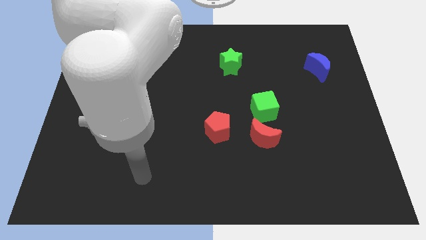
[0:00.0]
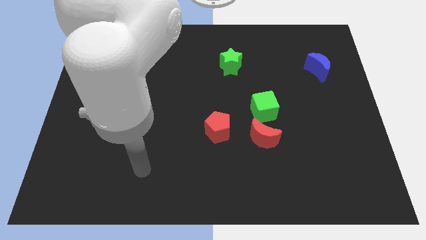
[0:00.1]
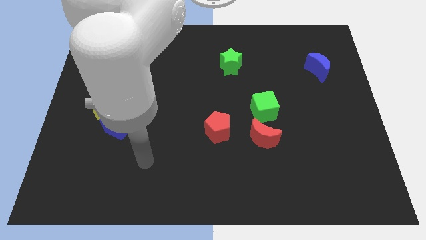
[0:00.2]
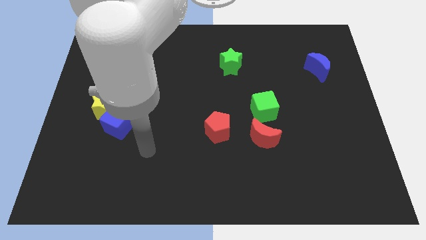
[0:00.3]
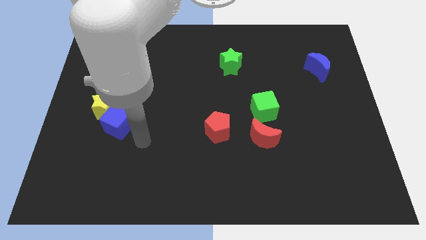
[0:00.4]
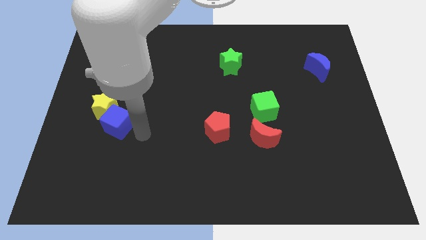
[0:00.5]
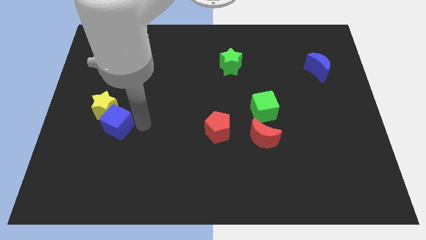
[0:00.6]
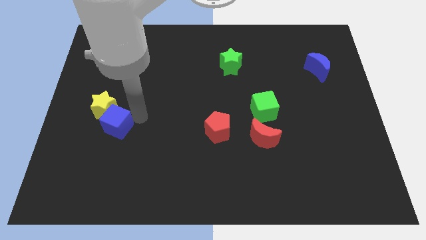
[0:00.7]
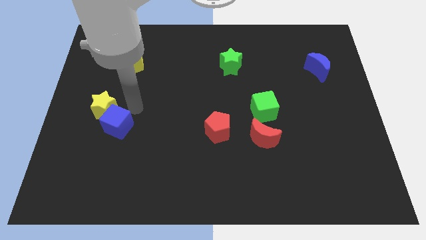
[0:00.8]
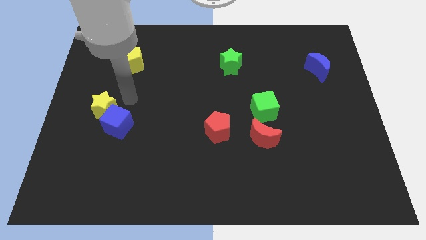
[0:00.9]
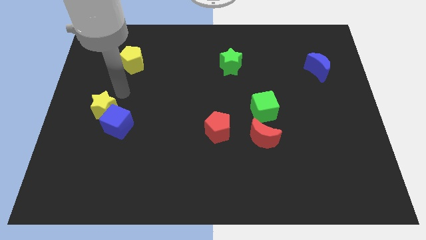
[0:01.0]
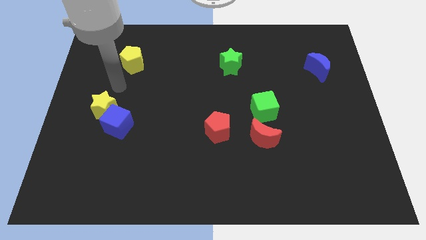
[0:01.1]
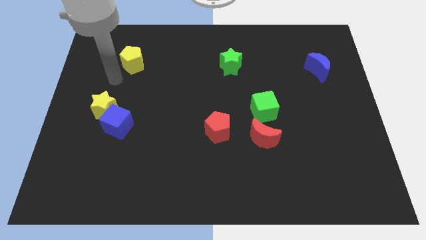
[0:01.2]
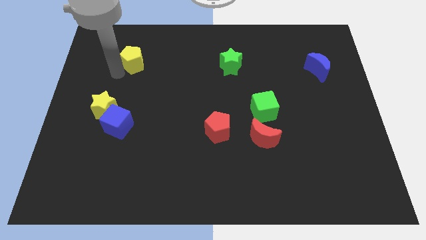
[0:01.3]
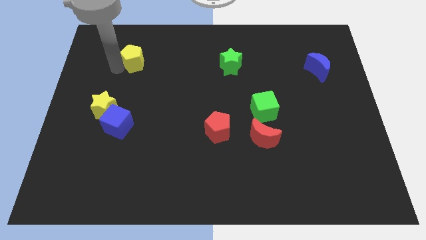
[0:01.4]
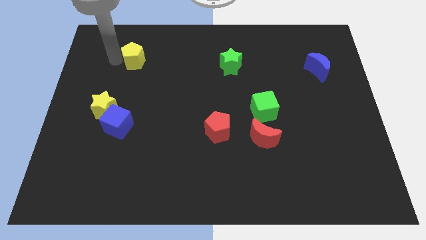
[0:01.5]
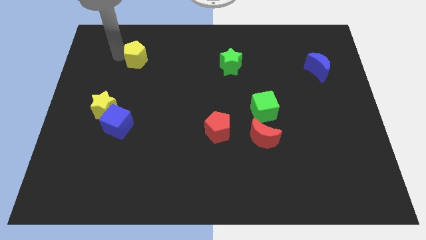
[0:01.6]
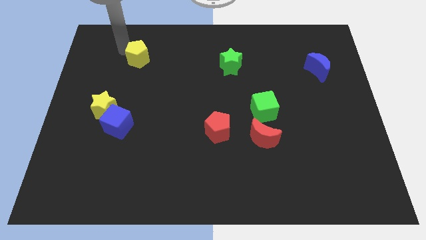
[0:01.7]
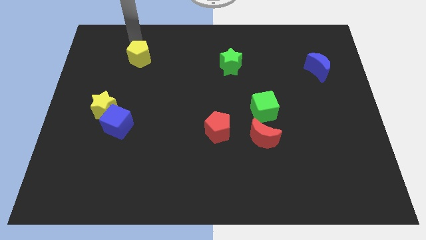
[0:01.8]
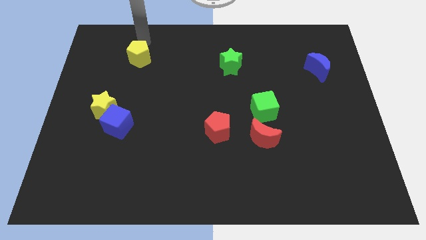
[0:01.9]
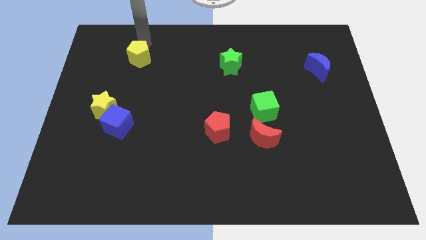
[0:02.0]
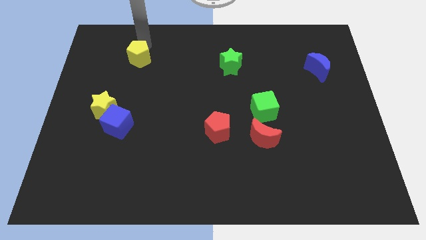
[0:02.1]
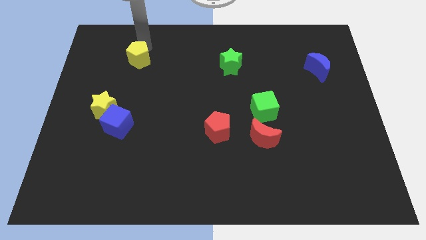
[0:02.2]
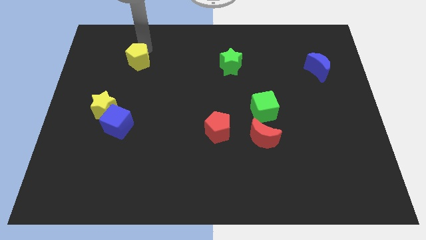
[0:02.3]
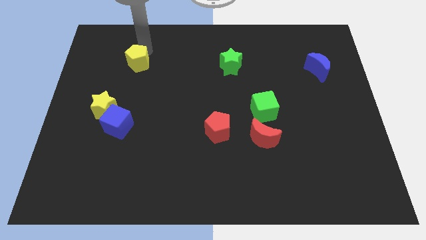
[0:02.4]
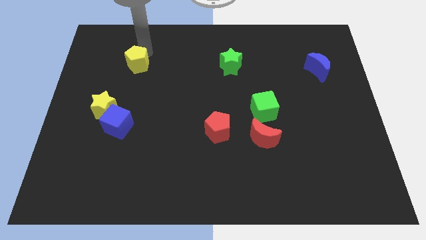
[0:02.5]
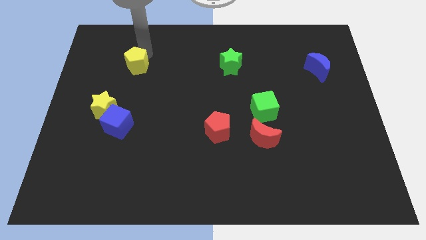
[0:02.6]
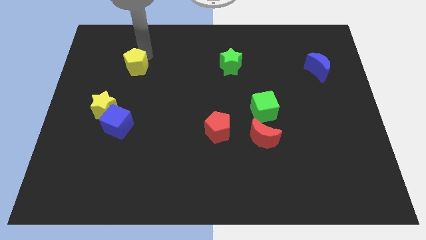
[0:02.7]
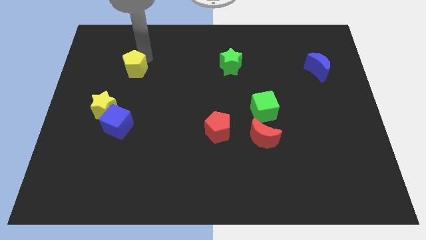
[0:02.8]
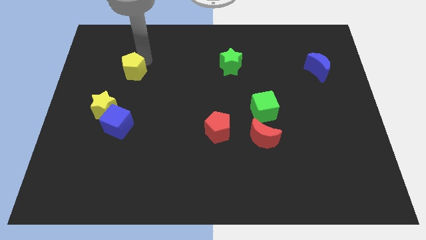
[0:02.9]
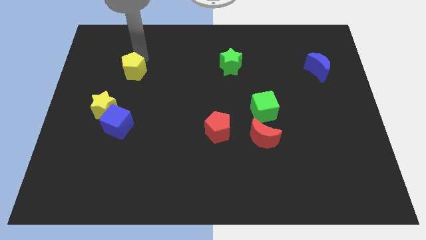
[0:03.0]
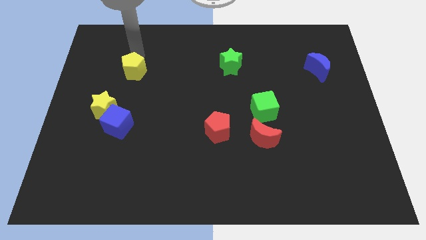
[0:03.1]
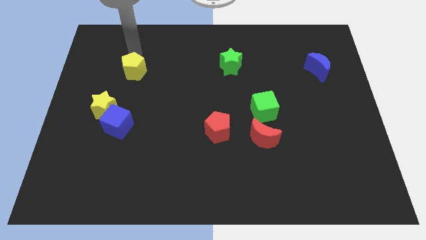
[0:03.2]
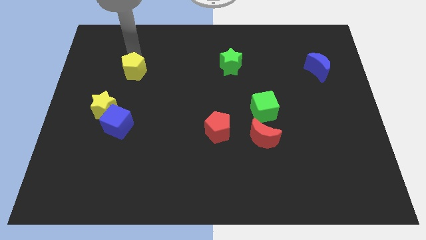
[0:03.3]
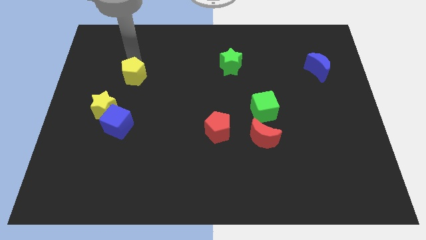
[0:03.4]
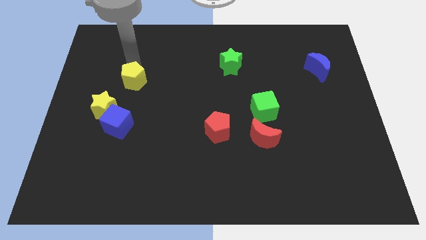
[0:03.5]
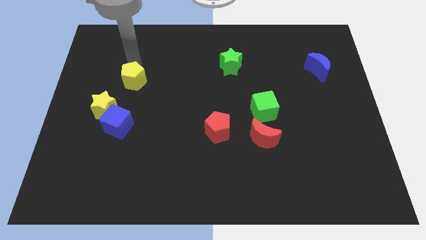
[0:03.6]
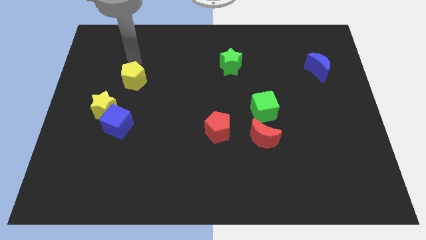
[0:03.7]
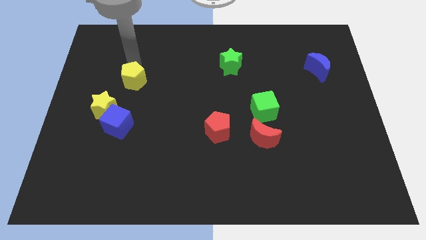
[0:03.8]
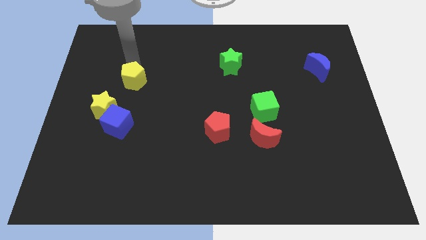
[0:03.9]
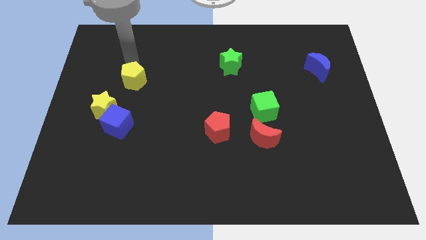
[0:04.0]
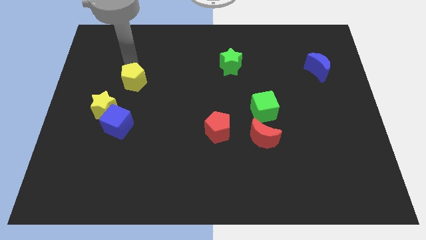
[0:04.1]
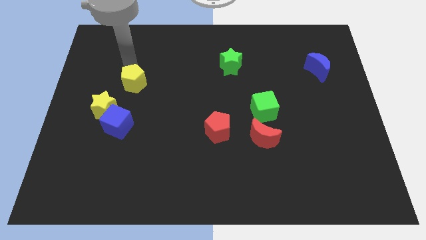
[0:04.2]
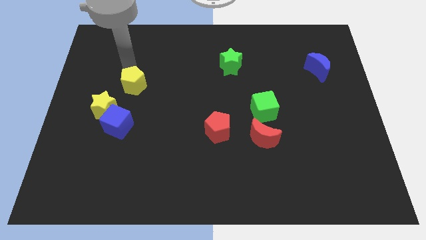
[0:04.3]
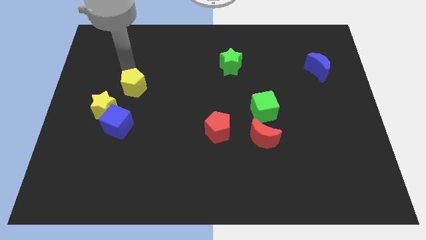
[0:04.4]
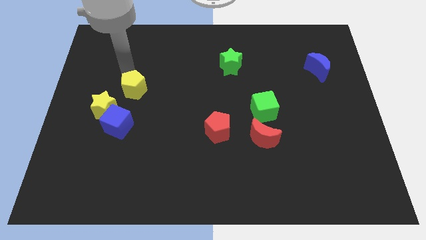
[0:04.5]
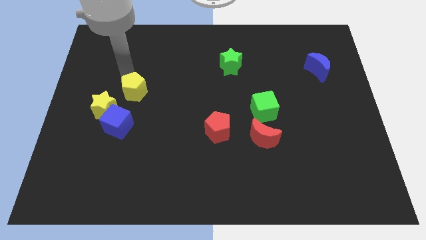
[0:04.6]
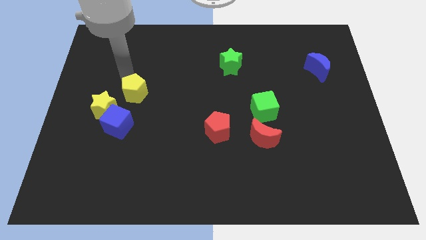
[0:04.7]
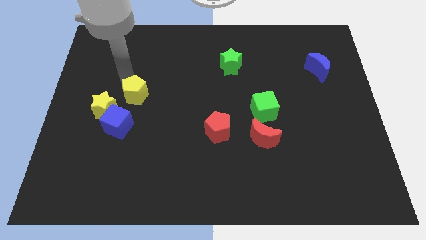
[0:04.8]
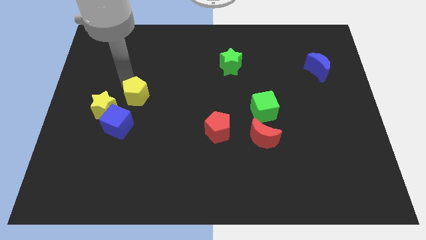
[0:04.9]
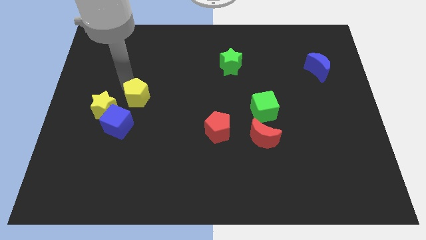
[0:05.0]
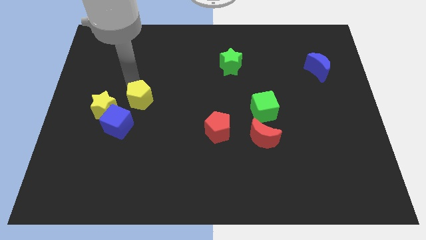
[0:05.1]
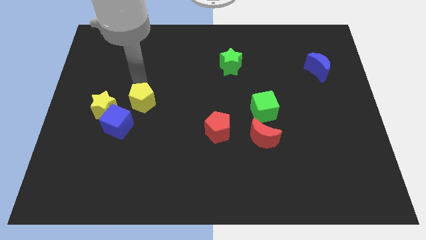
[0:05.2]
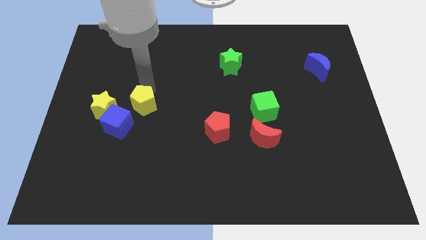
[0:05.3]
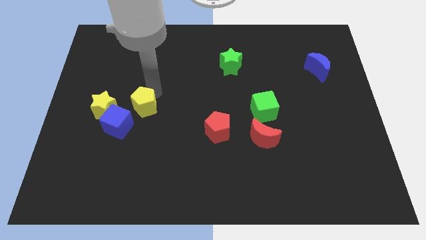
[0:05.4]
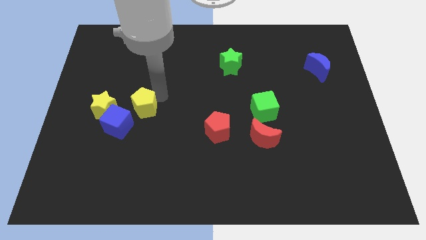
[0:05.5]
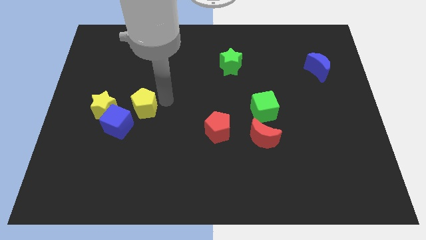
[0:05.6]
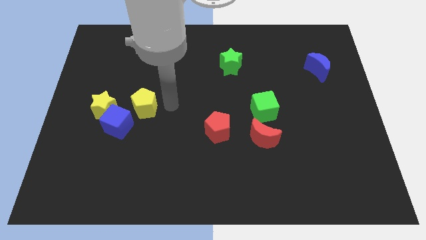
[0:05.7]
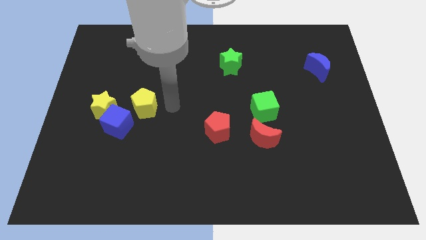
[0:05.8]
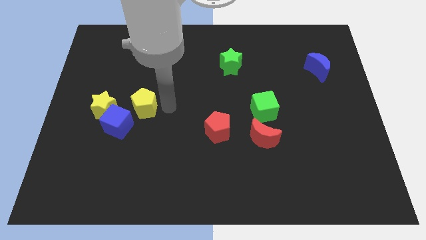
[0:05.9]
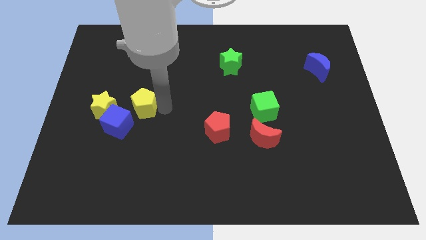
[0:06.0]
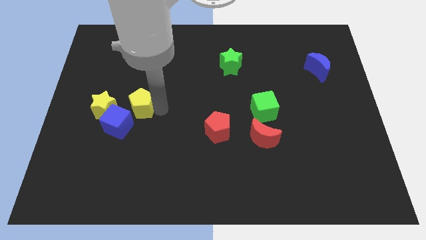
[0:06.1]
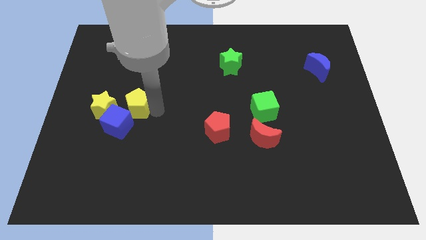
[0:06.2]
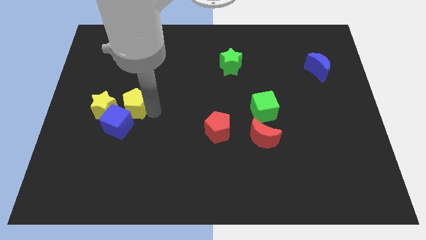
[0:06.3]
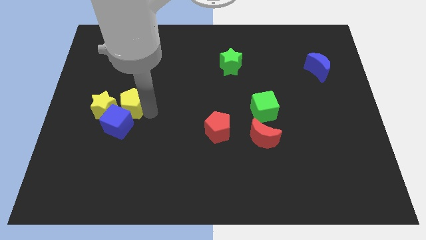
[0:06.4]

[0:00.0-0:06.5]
move the yellow pentagon next to the yellow star

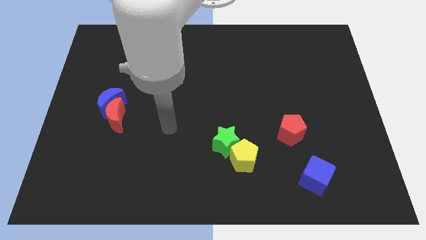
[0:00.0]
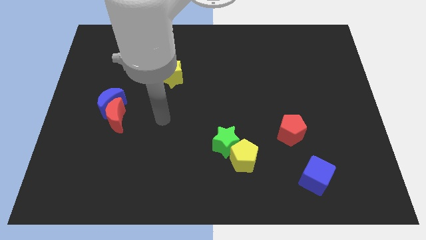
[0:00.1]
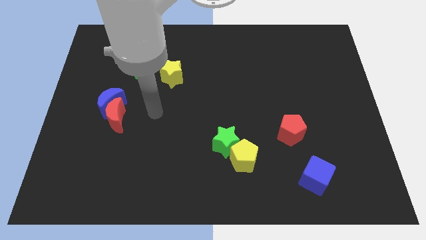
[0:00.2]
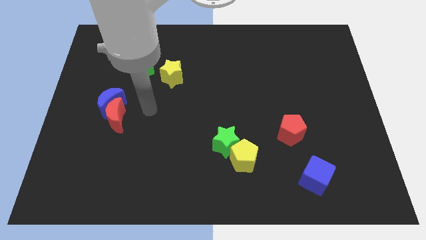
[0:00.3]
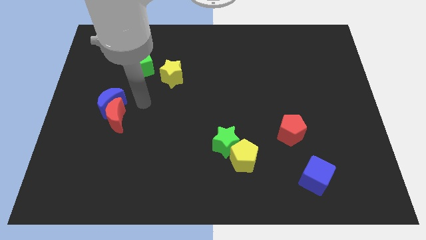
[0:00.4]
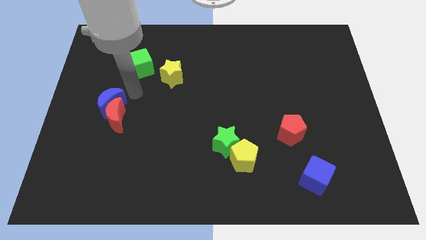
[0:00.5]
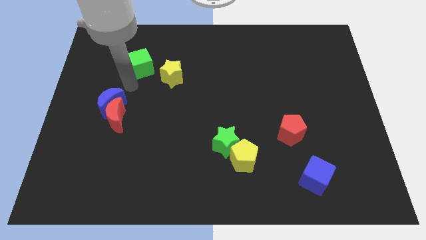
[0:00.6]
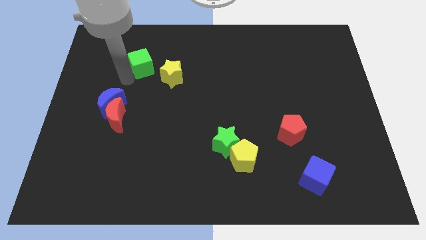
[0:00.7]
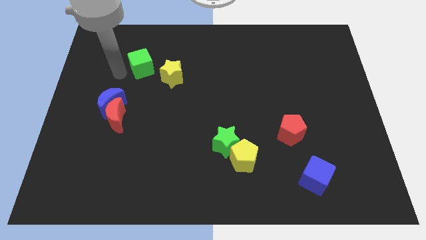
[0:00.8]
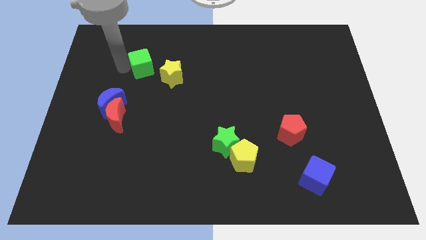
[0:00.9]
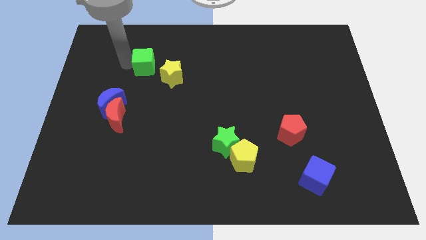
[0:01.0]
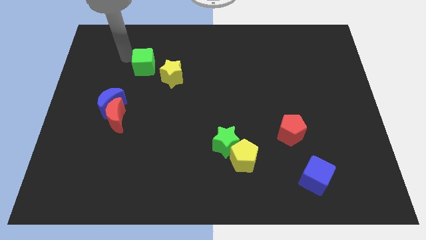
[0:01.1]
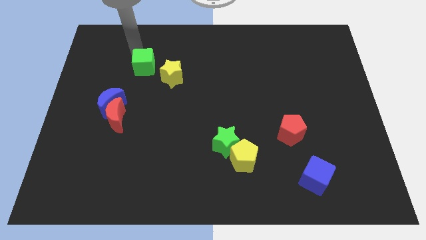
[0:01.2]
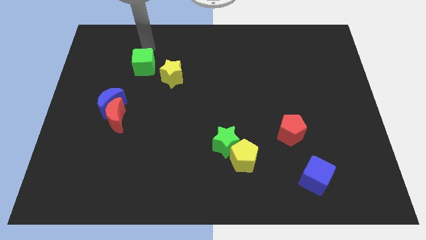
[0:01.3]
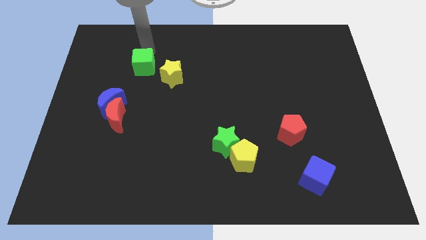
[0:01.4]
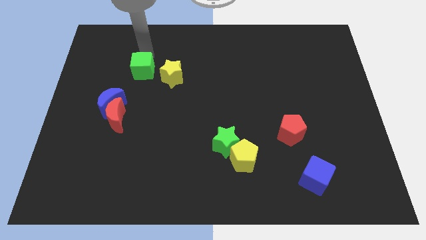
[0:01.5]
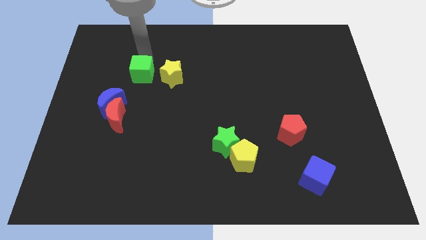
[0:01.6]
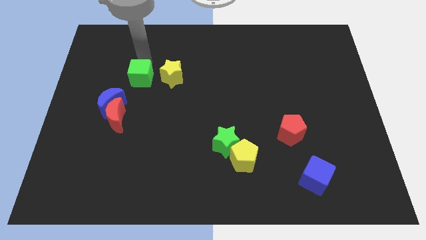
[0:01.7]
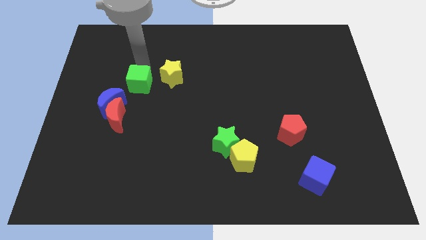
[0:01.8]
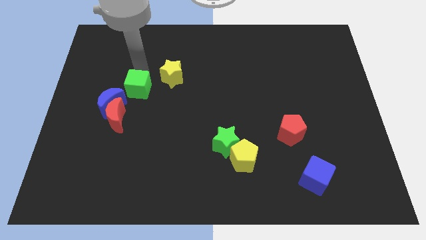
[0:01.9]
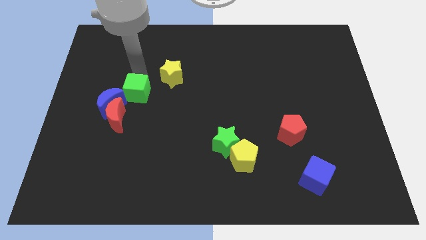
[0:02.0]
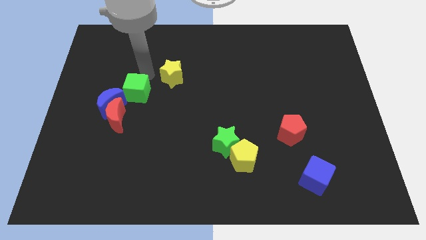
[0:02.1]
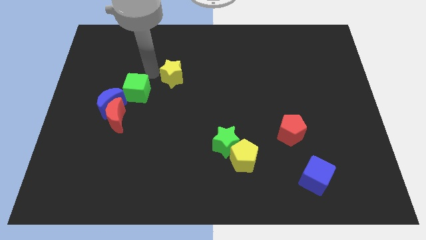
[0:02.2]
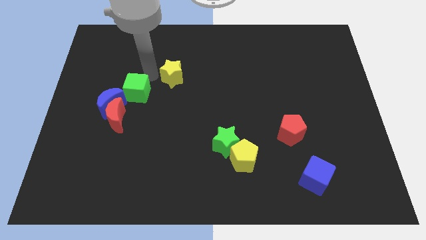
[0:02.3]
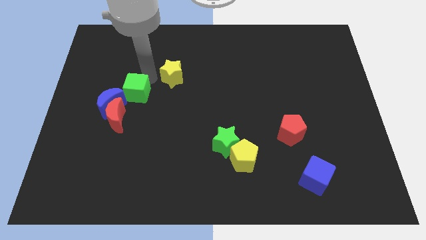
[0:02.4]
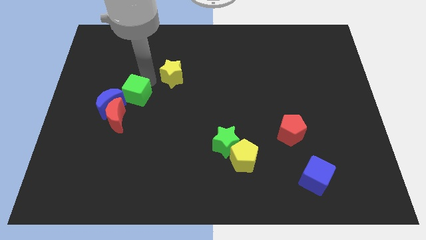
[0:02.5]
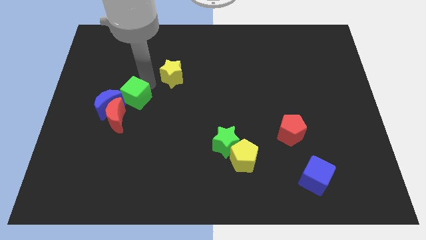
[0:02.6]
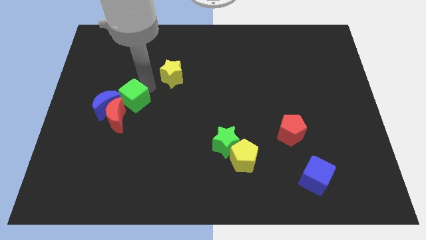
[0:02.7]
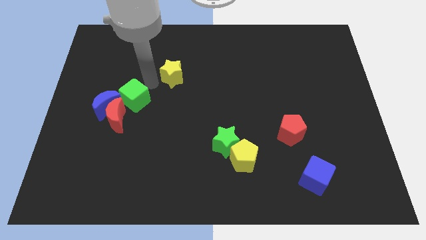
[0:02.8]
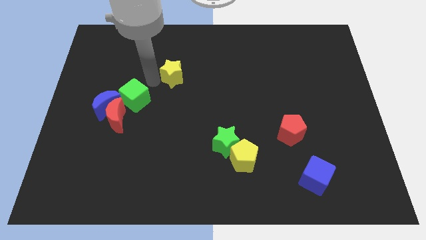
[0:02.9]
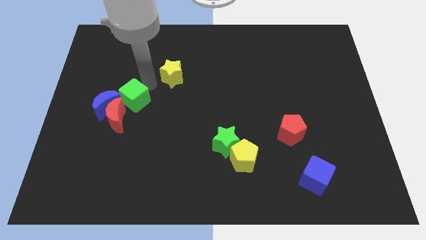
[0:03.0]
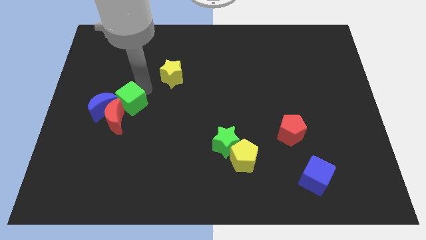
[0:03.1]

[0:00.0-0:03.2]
push the green cube next to the red moon
